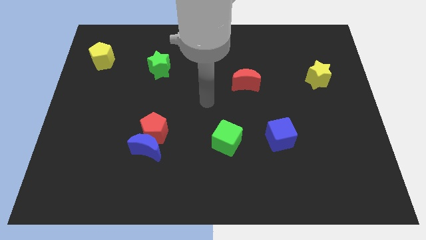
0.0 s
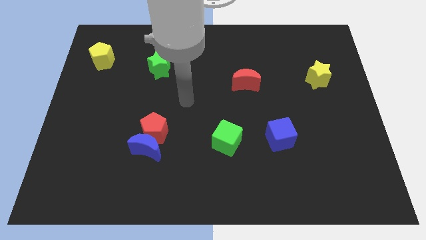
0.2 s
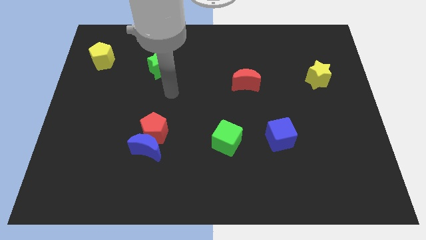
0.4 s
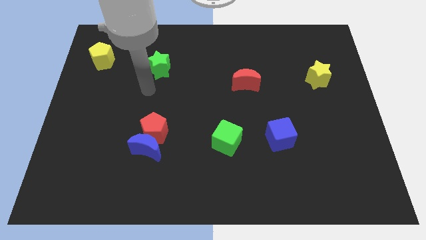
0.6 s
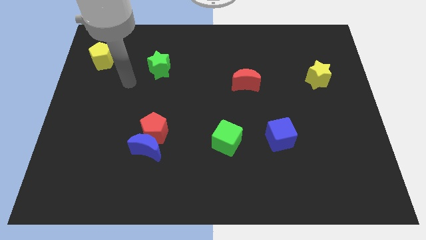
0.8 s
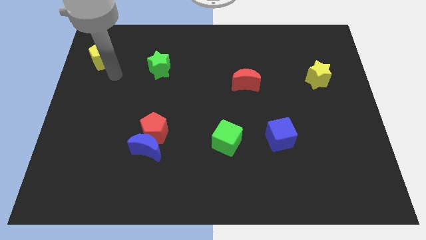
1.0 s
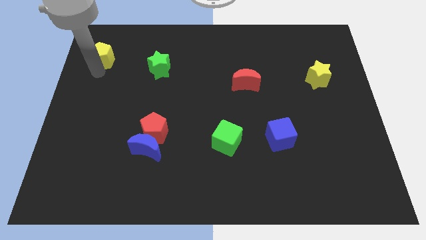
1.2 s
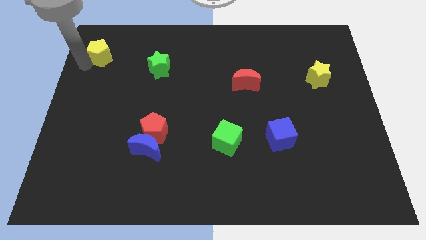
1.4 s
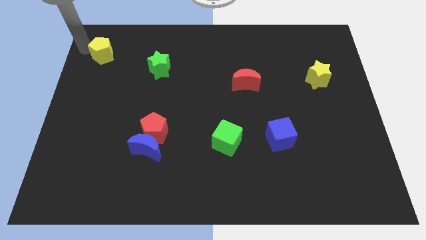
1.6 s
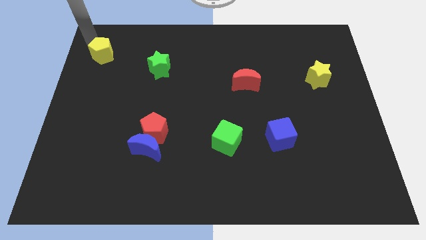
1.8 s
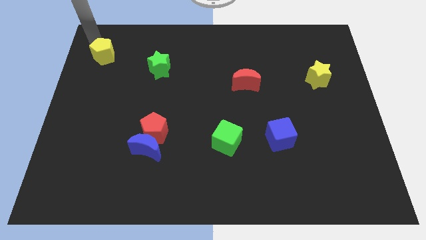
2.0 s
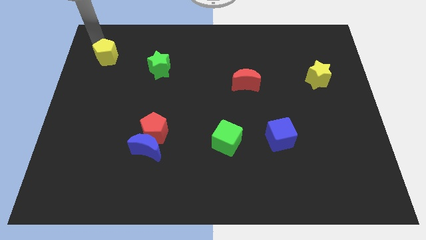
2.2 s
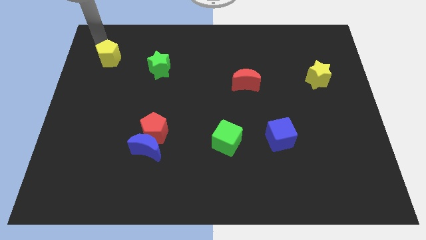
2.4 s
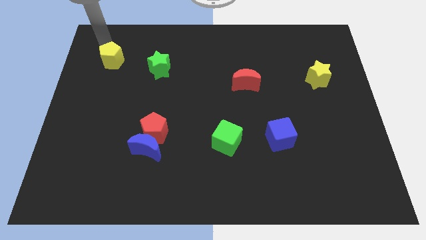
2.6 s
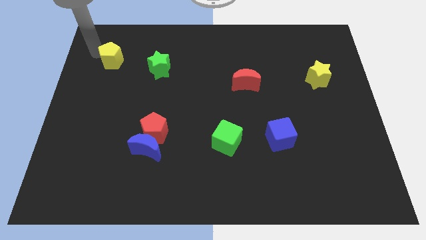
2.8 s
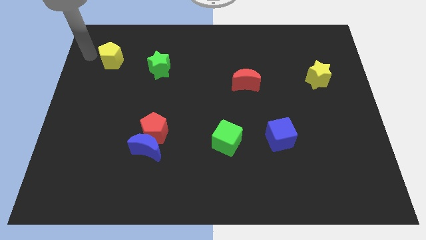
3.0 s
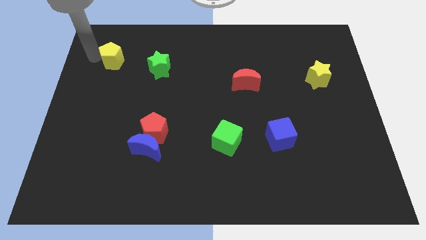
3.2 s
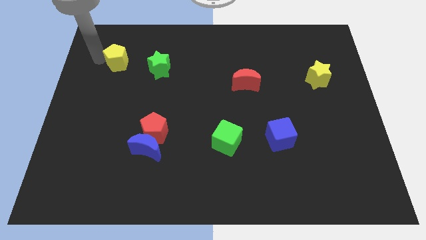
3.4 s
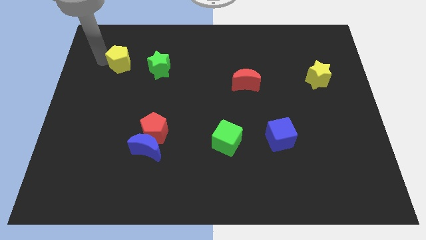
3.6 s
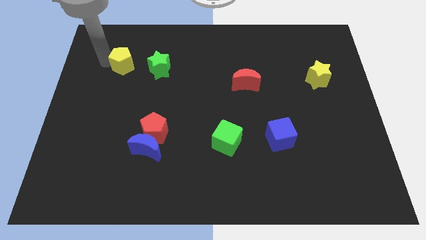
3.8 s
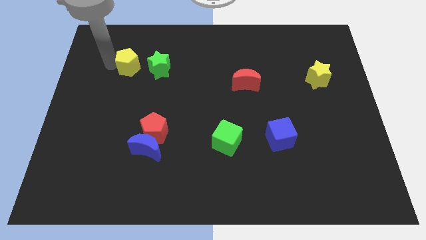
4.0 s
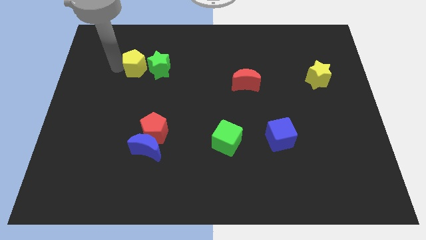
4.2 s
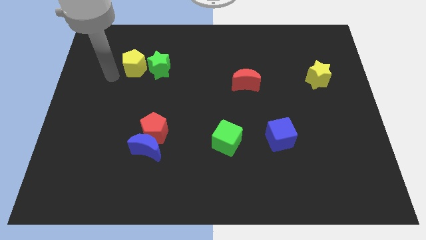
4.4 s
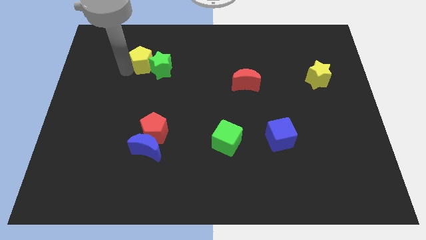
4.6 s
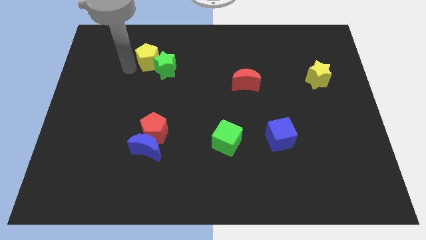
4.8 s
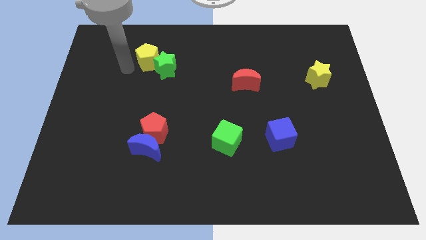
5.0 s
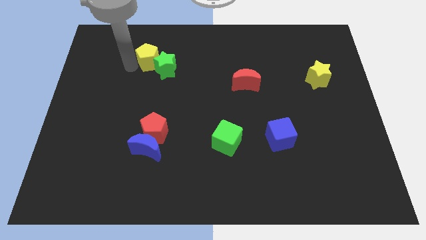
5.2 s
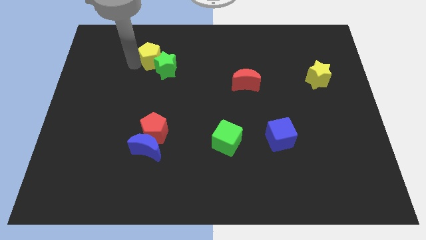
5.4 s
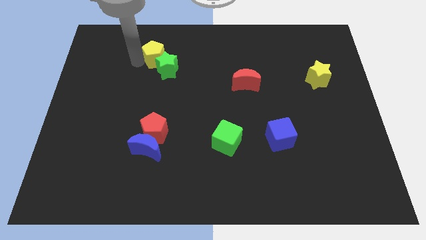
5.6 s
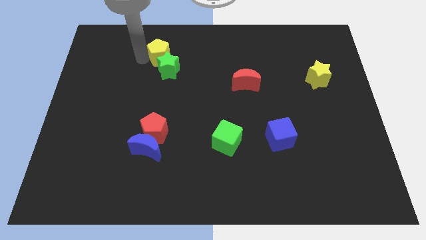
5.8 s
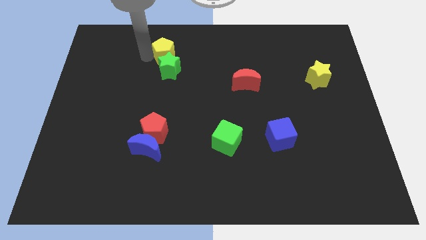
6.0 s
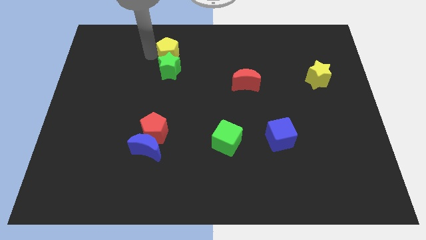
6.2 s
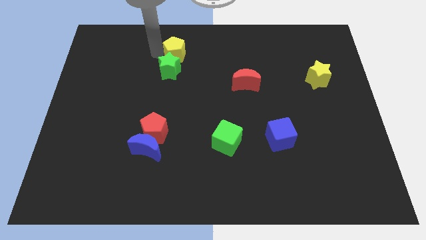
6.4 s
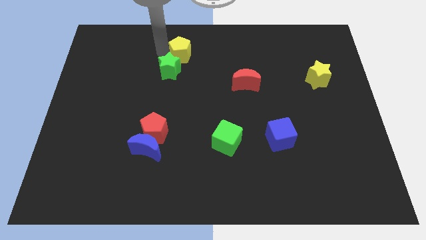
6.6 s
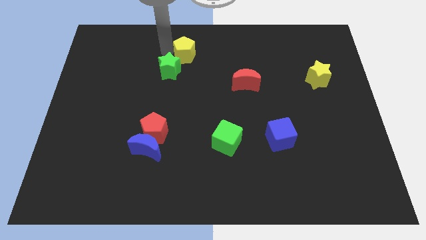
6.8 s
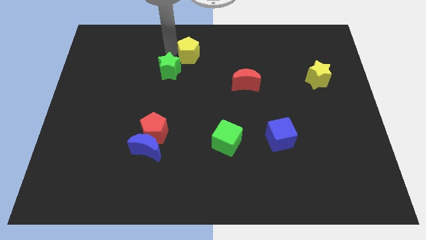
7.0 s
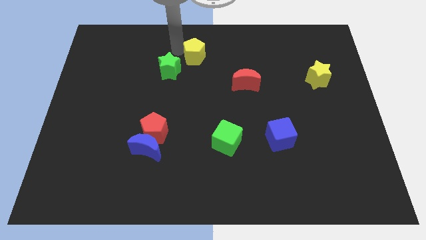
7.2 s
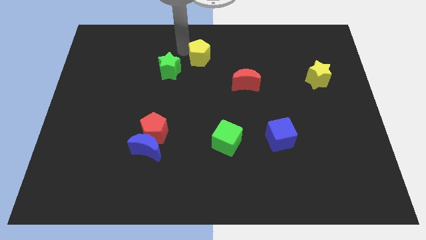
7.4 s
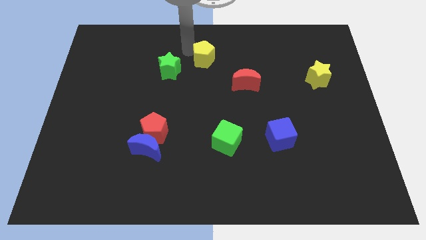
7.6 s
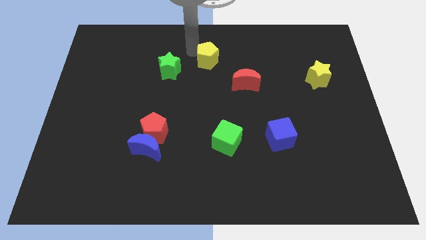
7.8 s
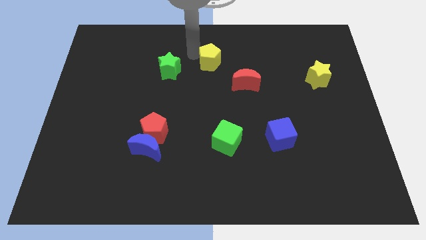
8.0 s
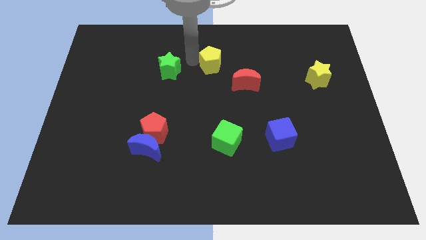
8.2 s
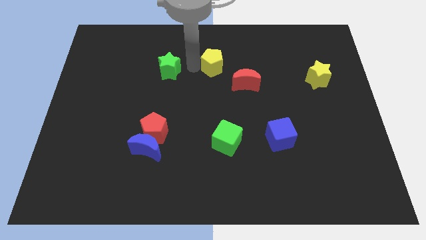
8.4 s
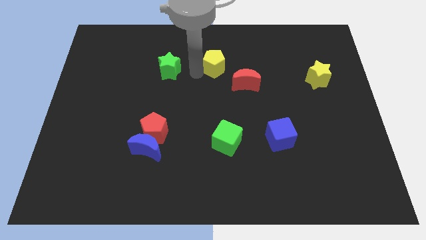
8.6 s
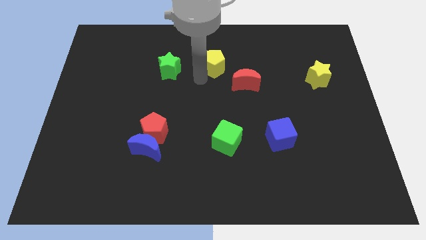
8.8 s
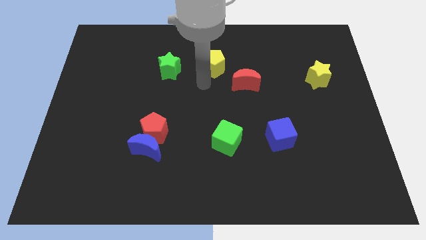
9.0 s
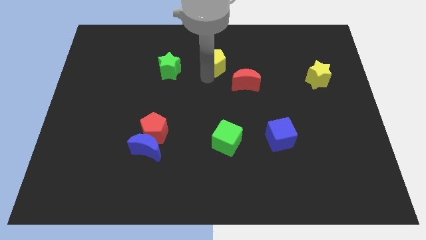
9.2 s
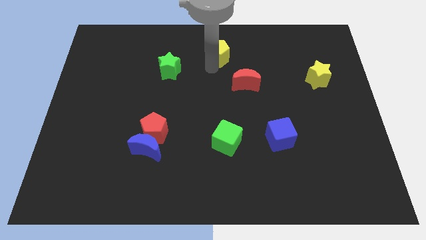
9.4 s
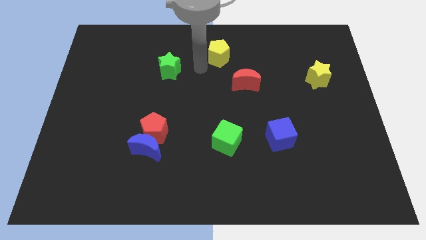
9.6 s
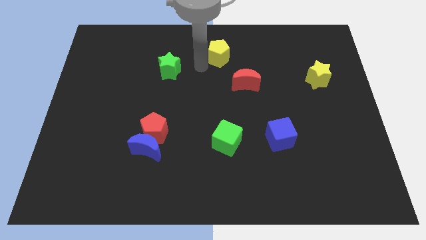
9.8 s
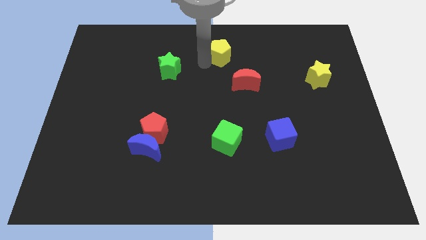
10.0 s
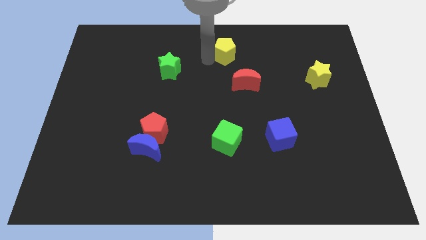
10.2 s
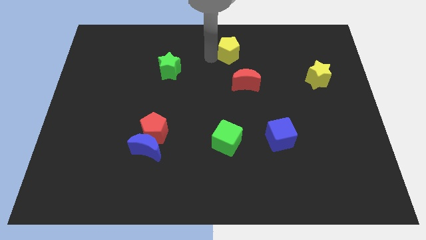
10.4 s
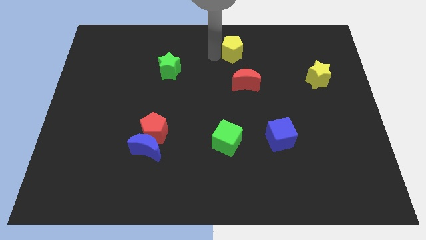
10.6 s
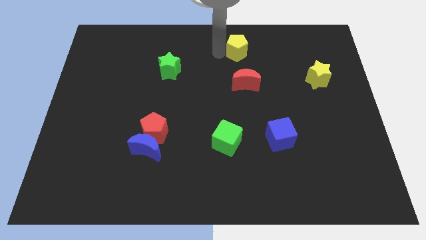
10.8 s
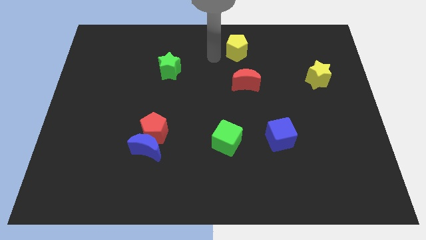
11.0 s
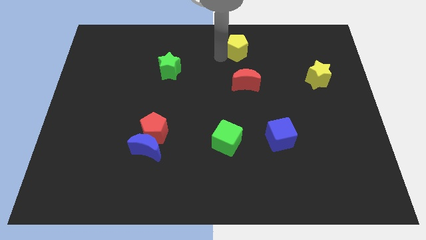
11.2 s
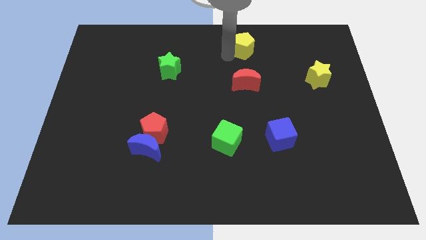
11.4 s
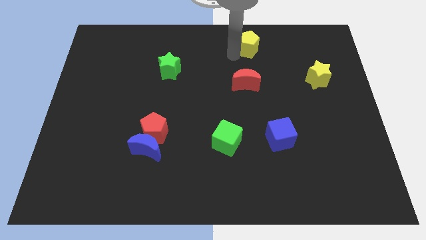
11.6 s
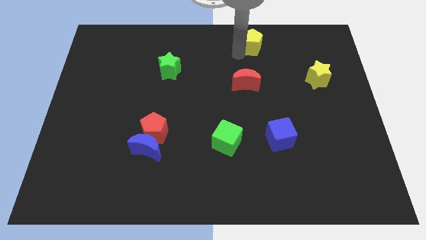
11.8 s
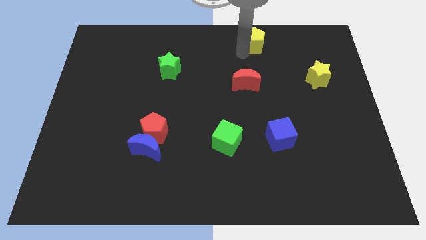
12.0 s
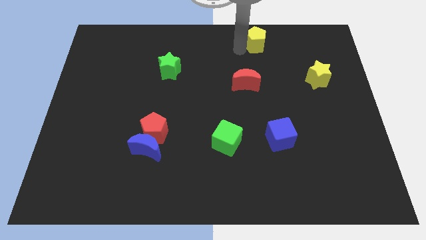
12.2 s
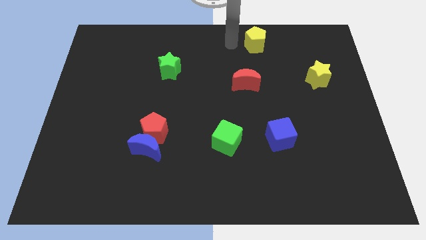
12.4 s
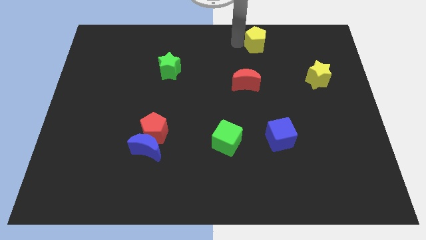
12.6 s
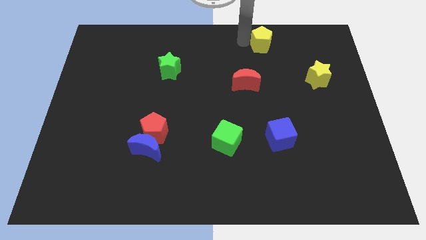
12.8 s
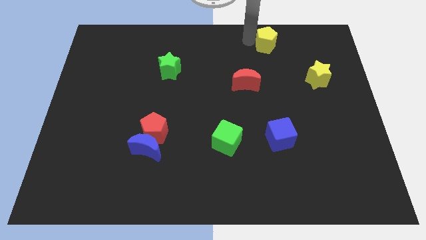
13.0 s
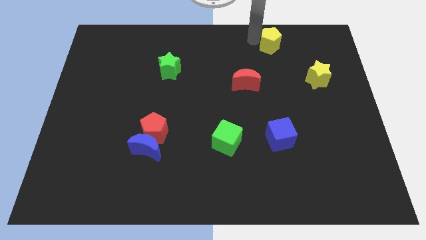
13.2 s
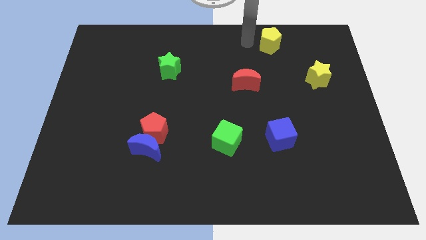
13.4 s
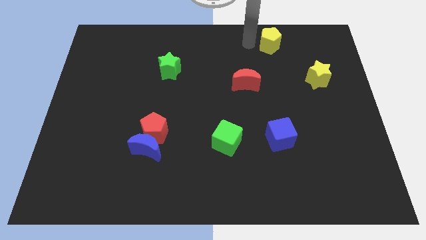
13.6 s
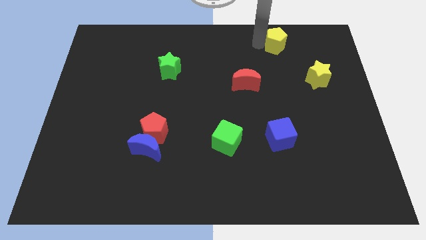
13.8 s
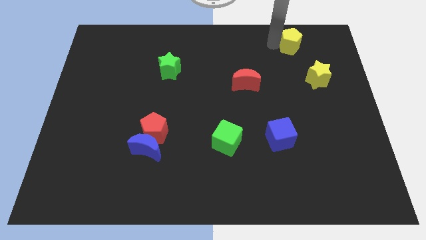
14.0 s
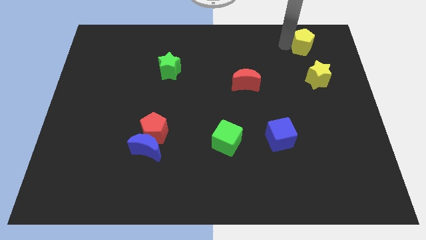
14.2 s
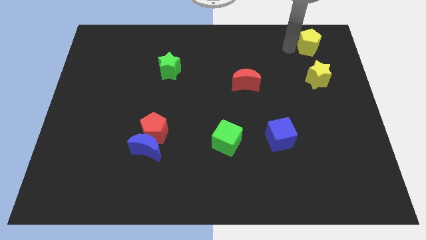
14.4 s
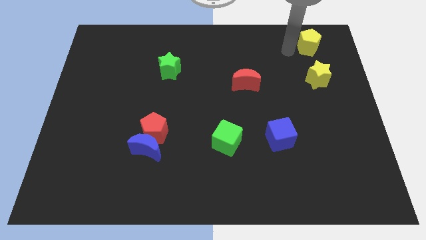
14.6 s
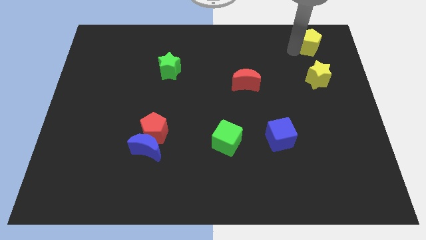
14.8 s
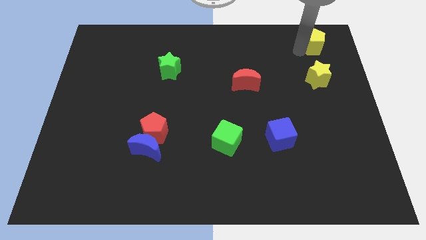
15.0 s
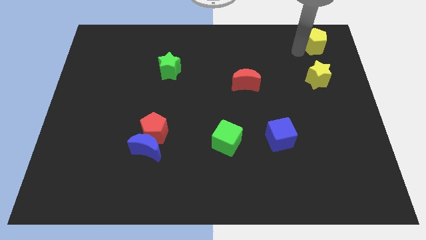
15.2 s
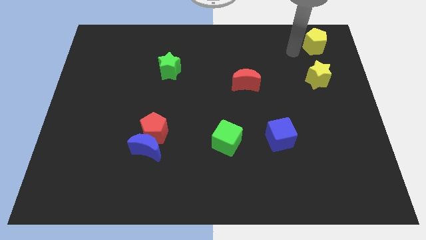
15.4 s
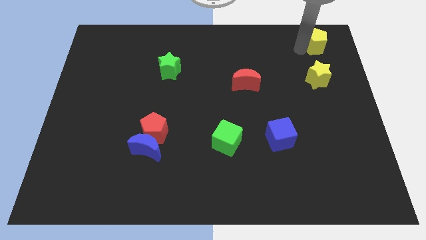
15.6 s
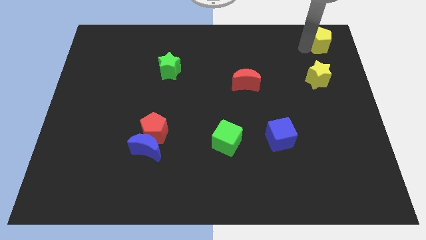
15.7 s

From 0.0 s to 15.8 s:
put the yellow pentagon to the upper right corner

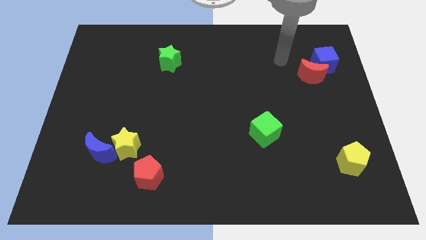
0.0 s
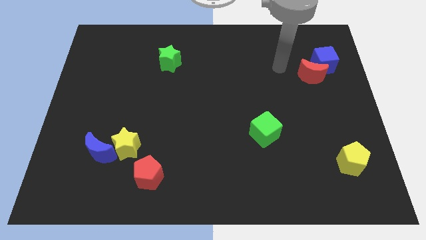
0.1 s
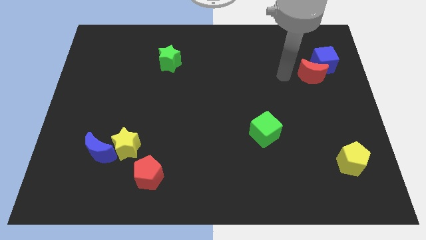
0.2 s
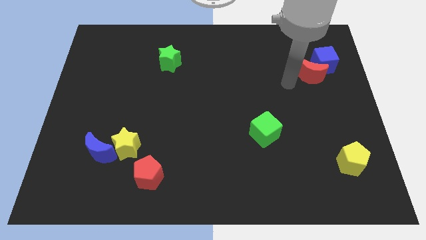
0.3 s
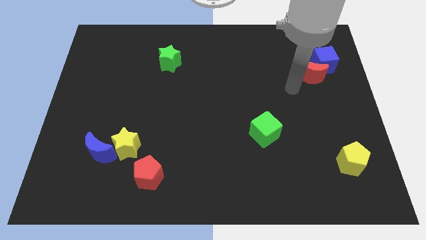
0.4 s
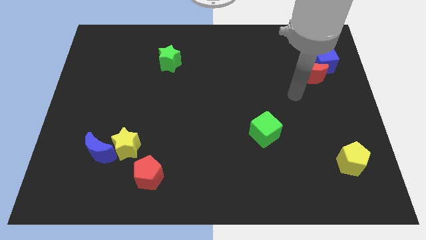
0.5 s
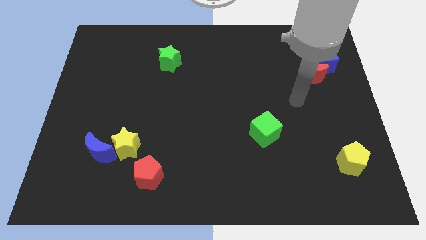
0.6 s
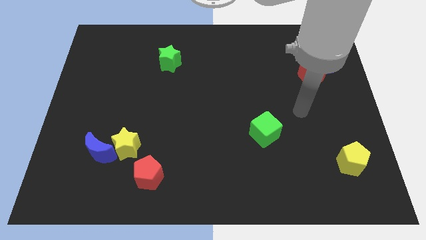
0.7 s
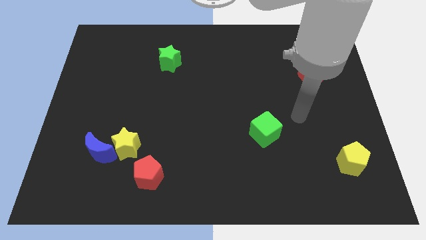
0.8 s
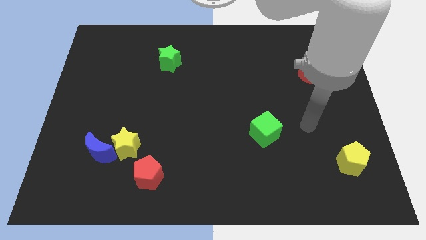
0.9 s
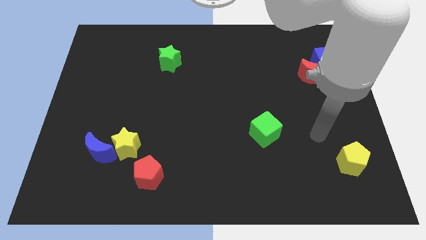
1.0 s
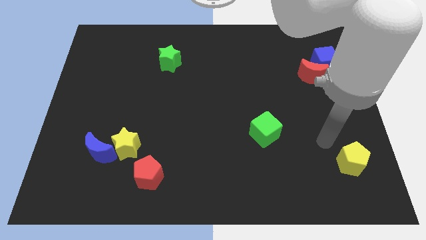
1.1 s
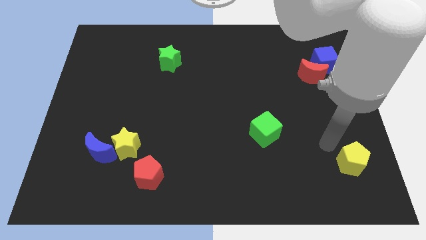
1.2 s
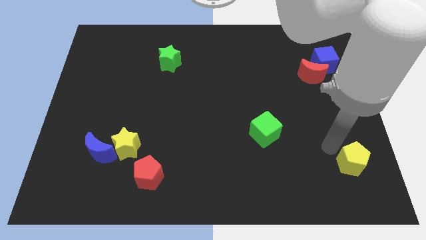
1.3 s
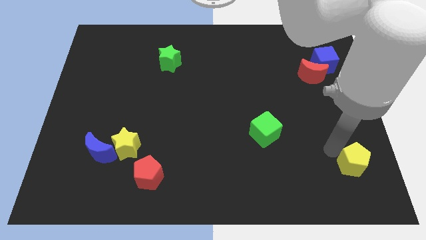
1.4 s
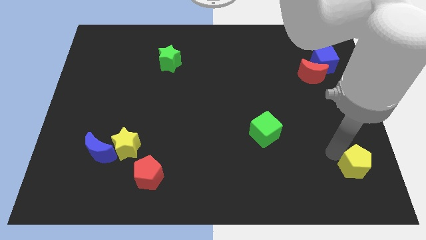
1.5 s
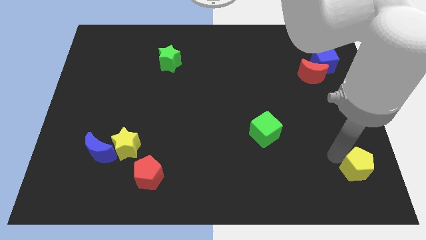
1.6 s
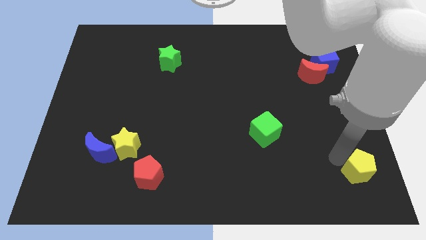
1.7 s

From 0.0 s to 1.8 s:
slide the yellow pentagon to the bottom right corner
